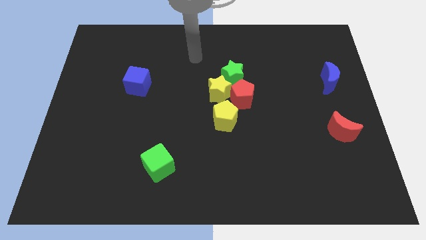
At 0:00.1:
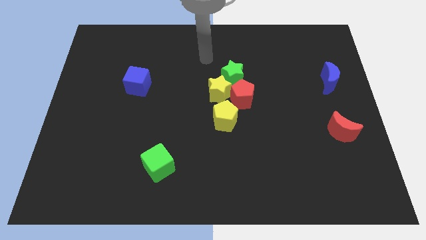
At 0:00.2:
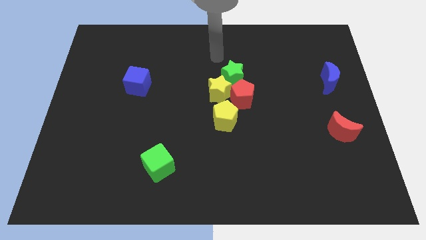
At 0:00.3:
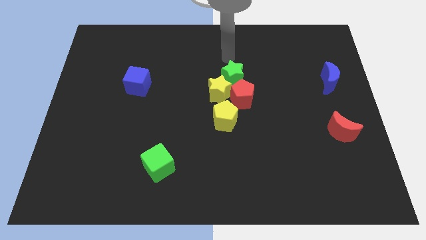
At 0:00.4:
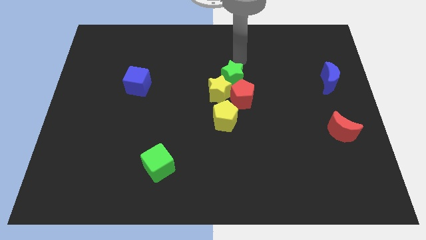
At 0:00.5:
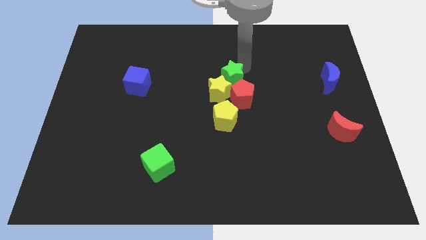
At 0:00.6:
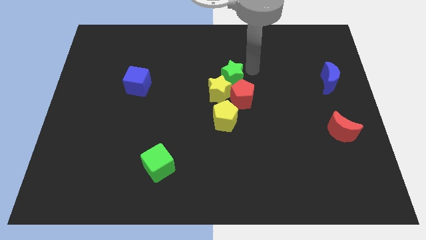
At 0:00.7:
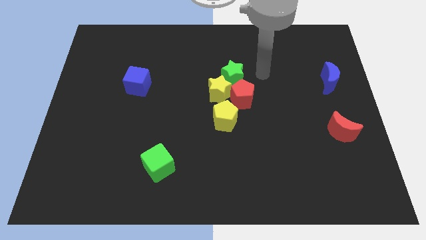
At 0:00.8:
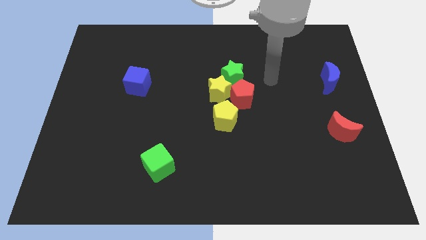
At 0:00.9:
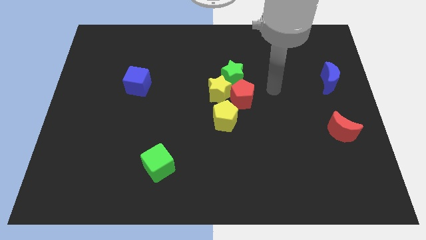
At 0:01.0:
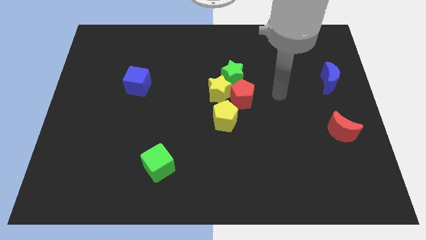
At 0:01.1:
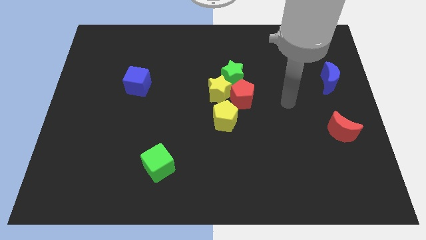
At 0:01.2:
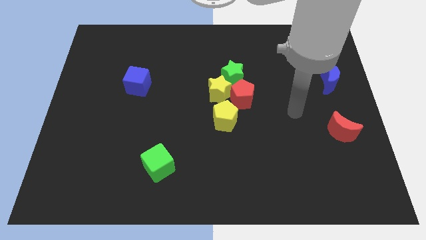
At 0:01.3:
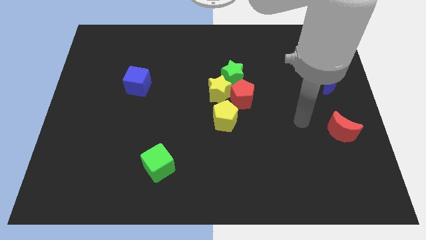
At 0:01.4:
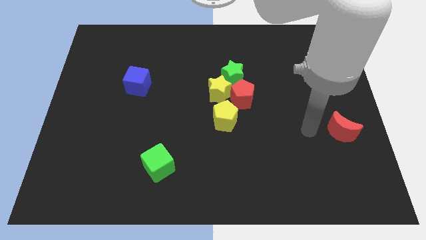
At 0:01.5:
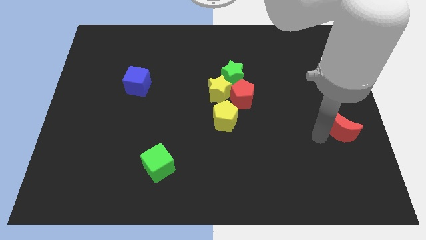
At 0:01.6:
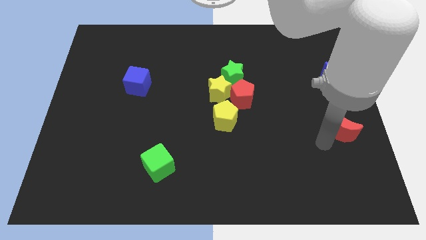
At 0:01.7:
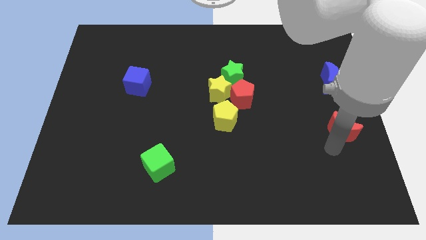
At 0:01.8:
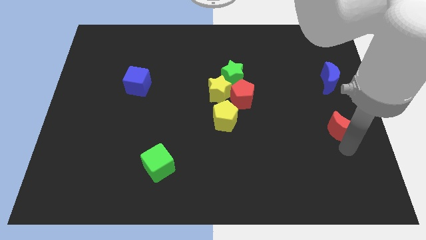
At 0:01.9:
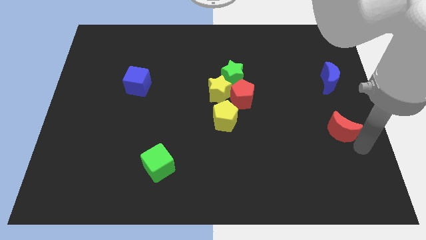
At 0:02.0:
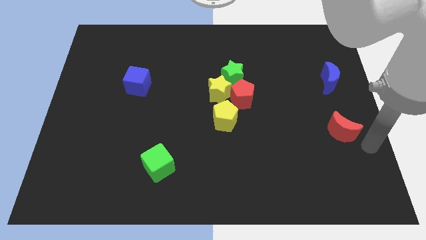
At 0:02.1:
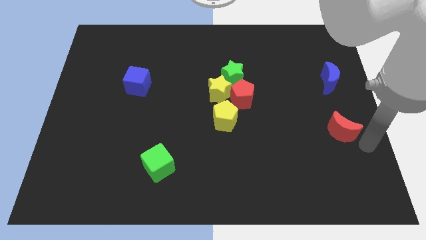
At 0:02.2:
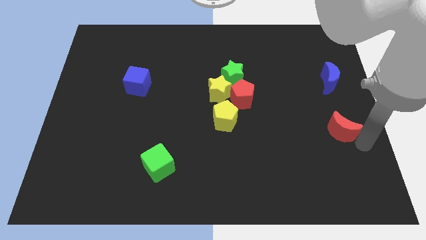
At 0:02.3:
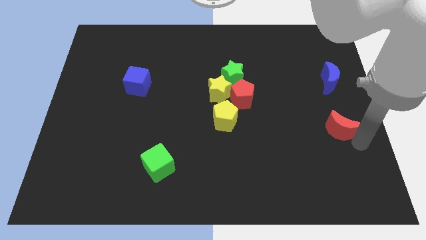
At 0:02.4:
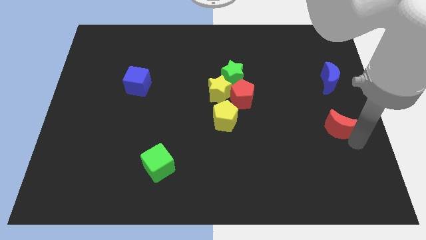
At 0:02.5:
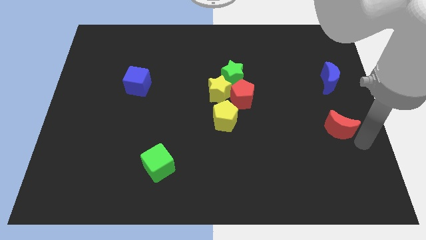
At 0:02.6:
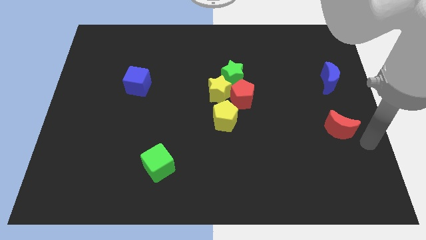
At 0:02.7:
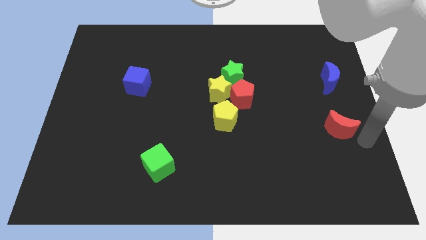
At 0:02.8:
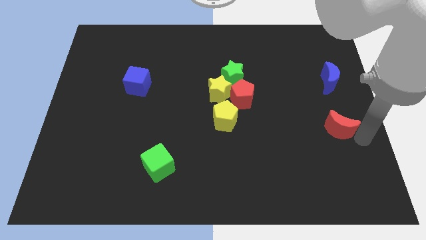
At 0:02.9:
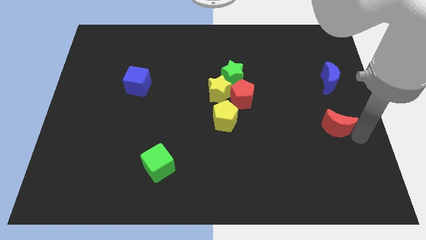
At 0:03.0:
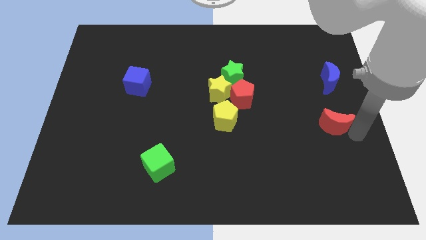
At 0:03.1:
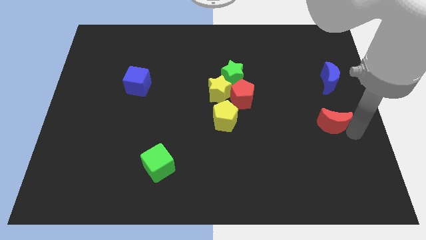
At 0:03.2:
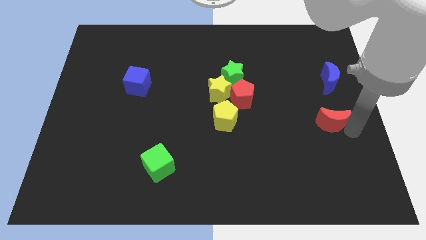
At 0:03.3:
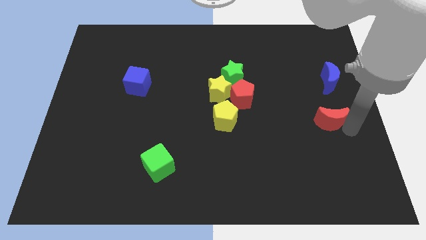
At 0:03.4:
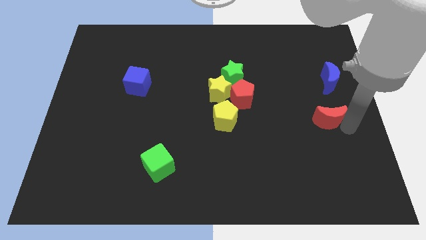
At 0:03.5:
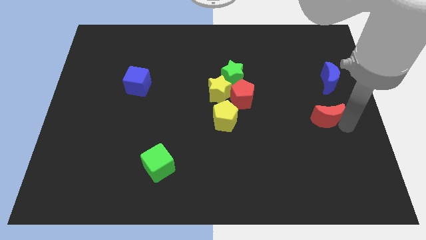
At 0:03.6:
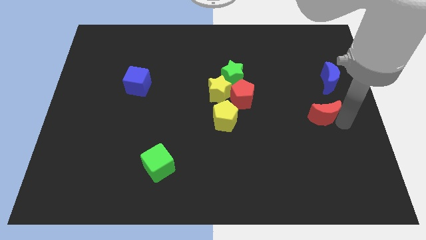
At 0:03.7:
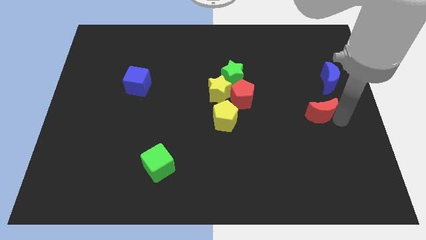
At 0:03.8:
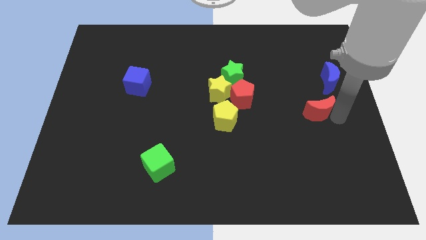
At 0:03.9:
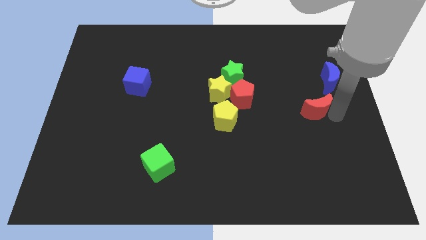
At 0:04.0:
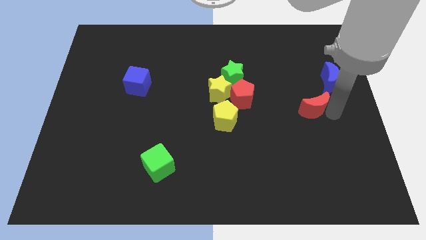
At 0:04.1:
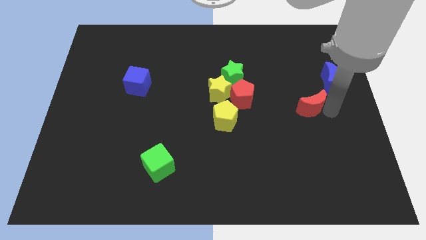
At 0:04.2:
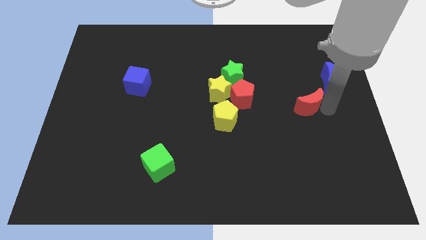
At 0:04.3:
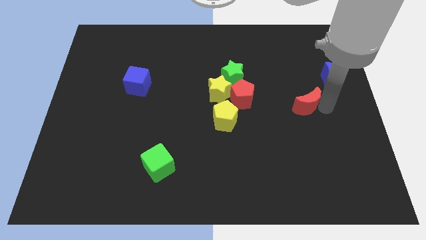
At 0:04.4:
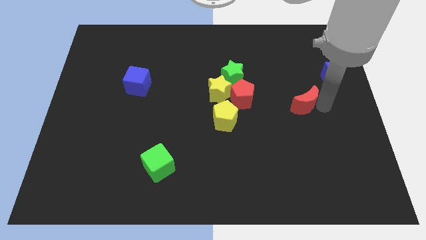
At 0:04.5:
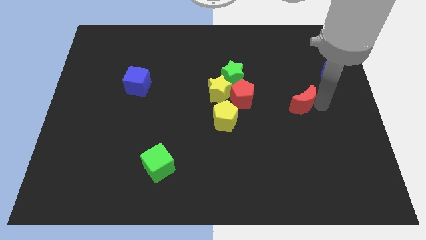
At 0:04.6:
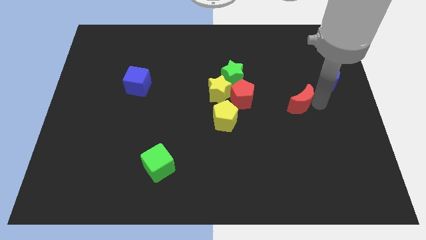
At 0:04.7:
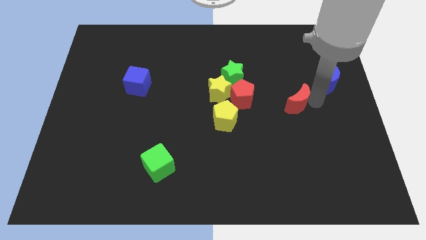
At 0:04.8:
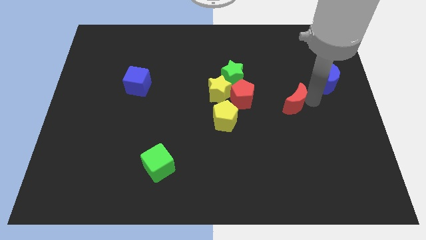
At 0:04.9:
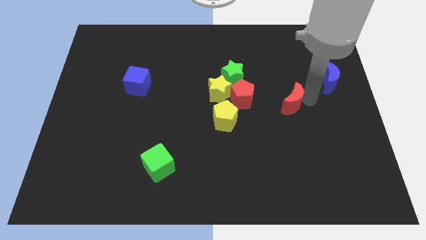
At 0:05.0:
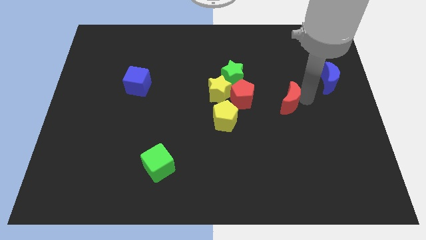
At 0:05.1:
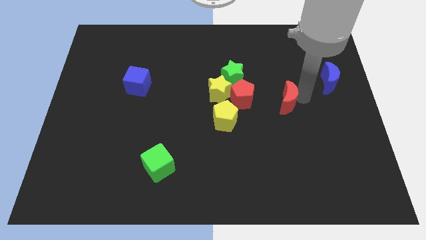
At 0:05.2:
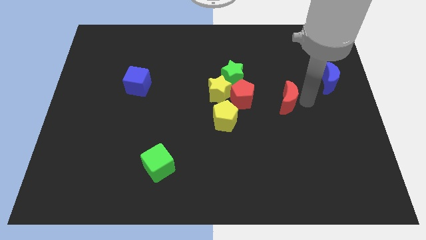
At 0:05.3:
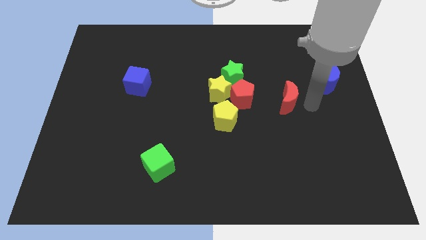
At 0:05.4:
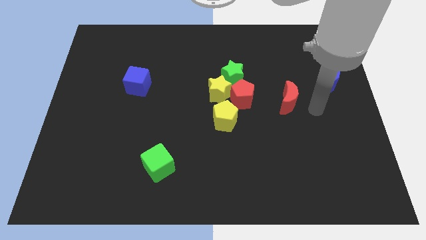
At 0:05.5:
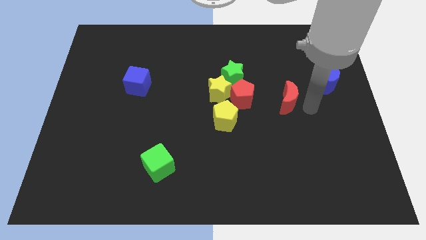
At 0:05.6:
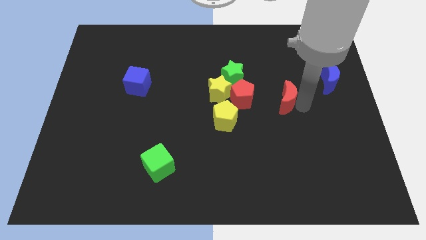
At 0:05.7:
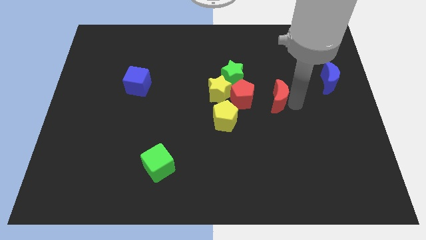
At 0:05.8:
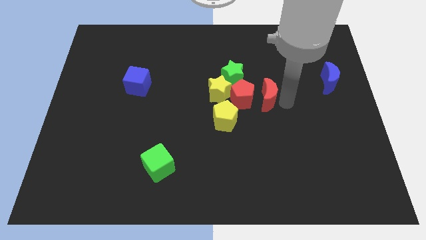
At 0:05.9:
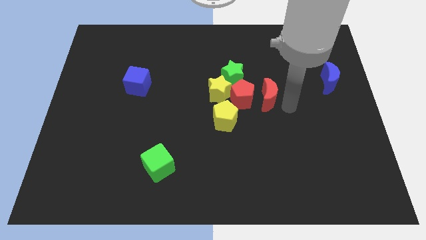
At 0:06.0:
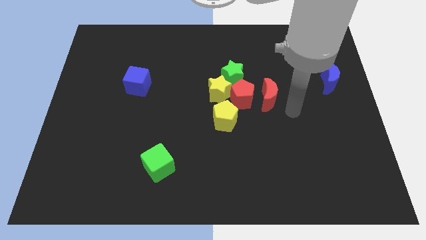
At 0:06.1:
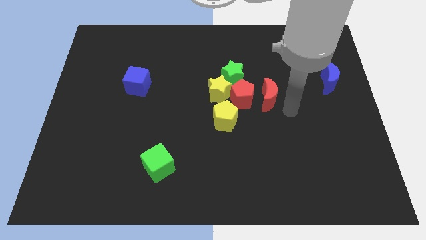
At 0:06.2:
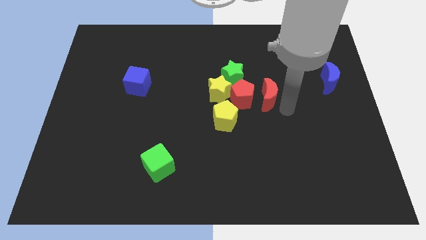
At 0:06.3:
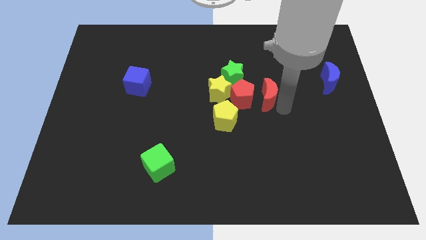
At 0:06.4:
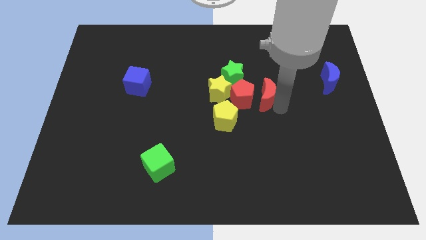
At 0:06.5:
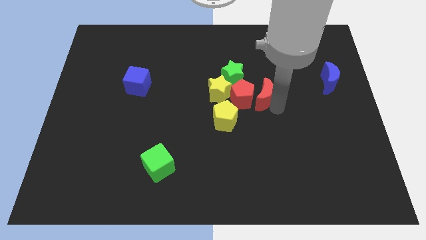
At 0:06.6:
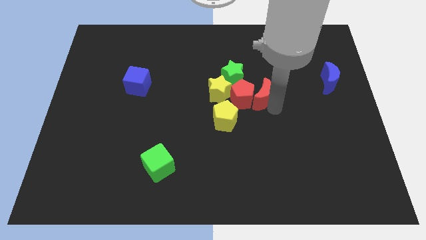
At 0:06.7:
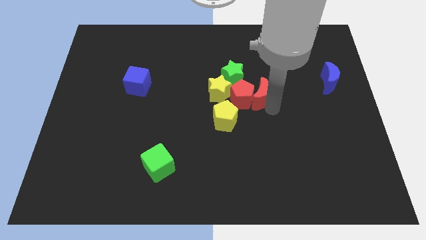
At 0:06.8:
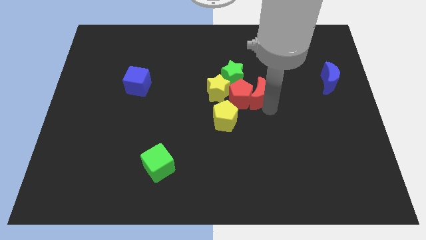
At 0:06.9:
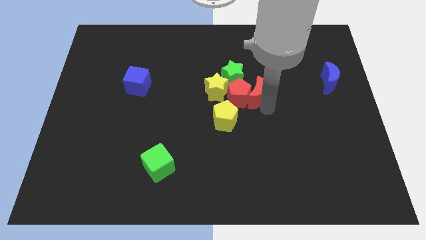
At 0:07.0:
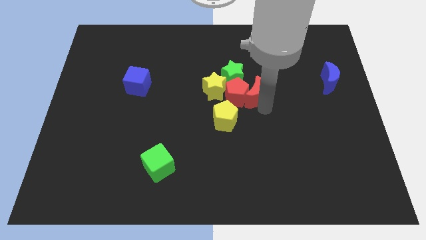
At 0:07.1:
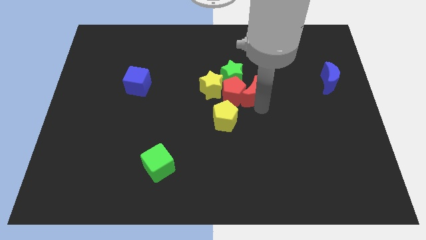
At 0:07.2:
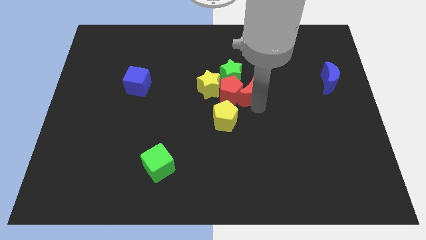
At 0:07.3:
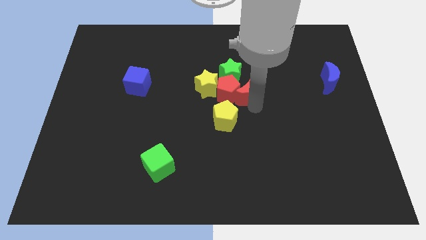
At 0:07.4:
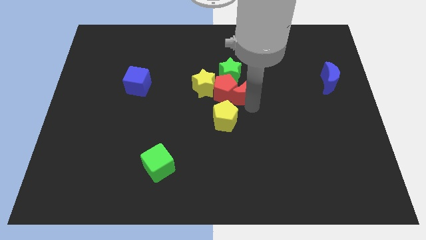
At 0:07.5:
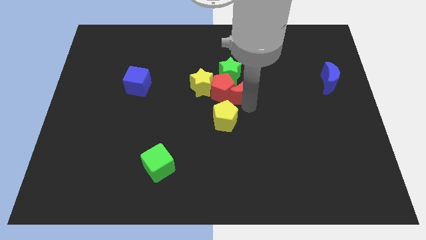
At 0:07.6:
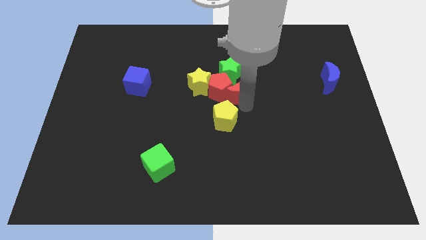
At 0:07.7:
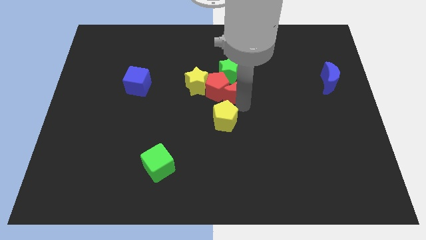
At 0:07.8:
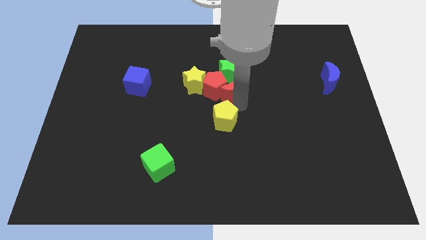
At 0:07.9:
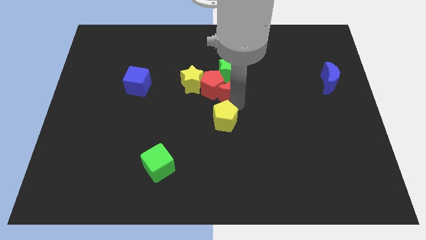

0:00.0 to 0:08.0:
move the red moon towards the green star

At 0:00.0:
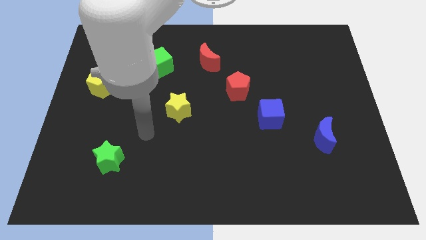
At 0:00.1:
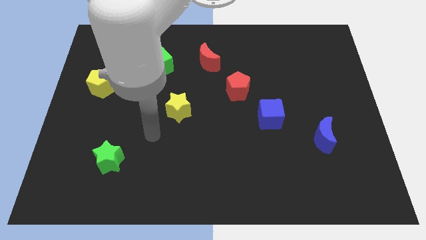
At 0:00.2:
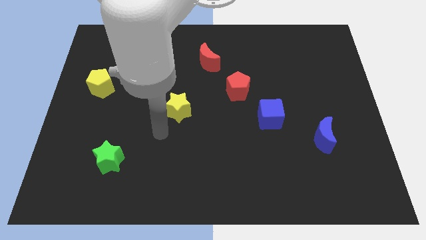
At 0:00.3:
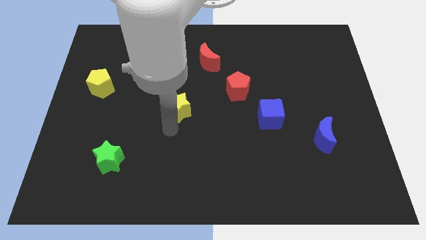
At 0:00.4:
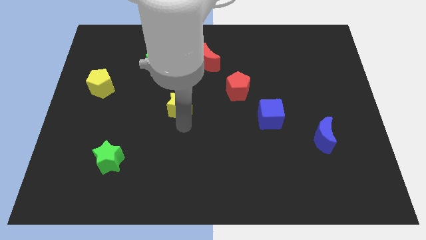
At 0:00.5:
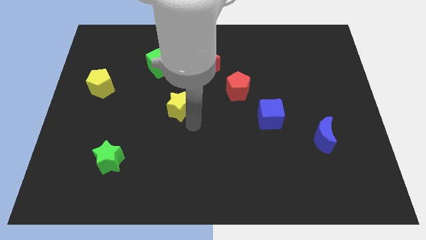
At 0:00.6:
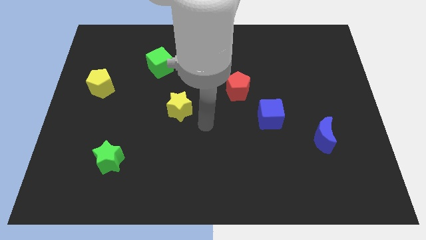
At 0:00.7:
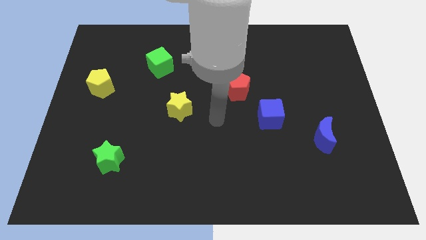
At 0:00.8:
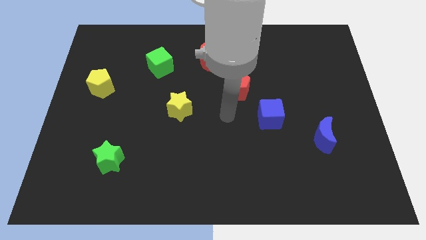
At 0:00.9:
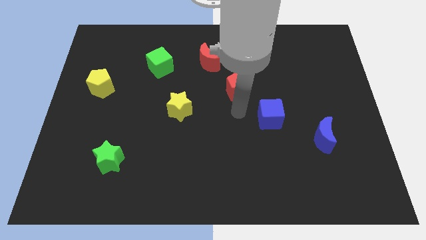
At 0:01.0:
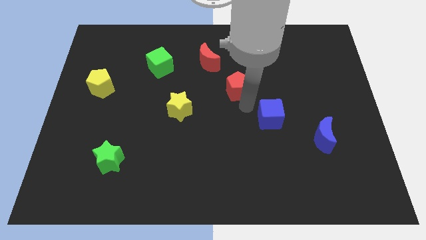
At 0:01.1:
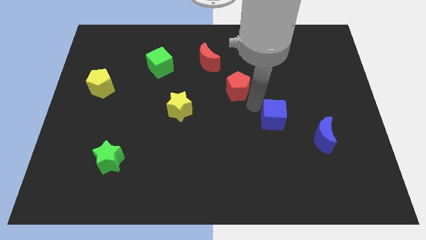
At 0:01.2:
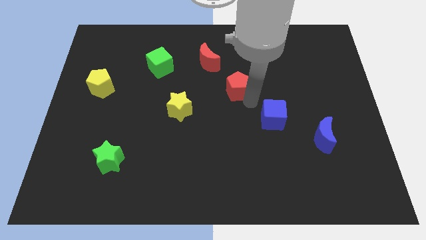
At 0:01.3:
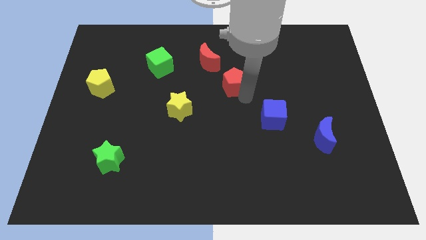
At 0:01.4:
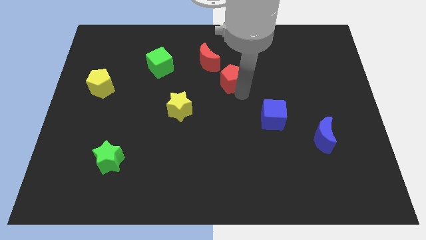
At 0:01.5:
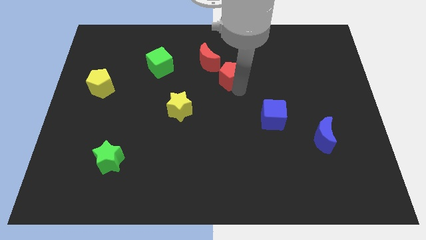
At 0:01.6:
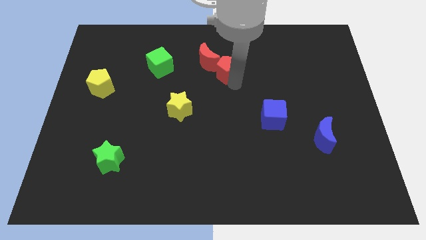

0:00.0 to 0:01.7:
put the red pentagon next to the red moon
